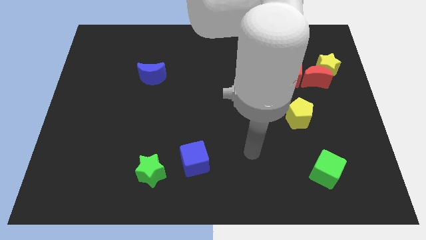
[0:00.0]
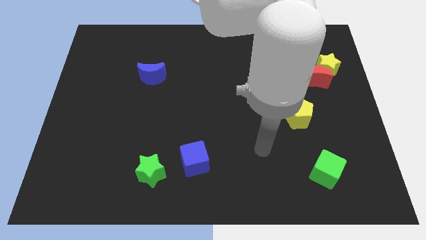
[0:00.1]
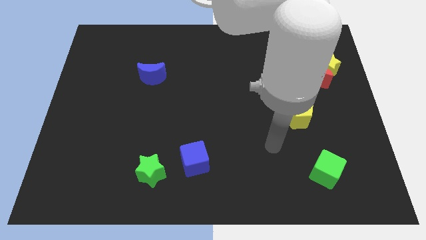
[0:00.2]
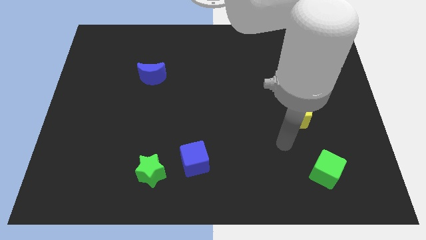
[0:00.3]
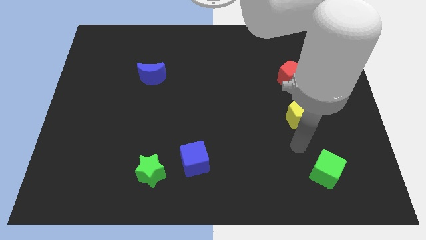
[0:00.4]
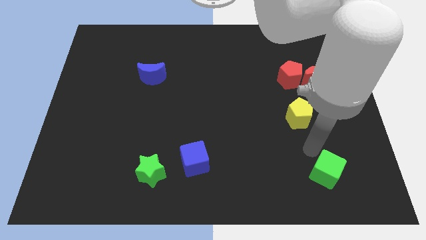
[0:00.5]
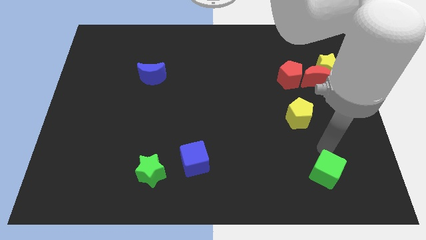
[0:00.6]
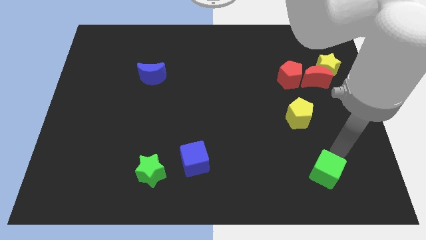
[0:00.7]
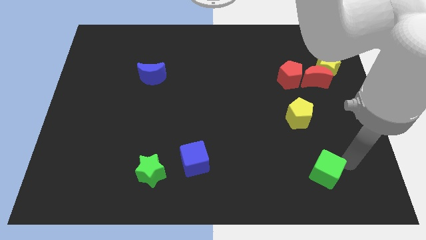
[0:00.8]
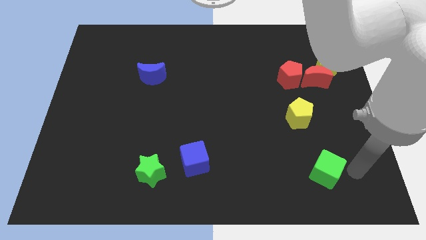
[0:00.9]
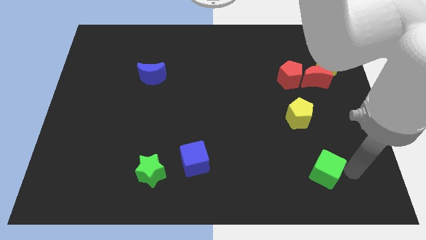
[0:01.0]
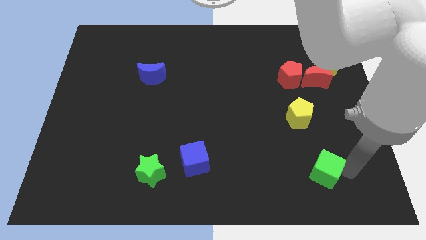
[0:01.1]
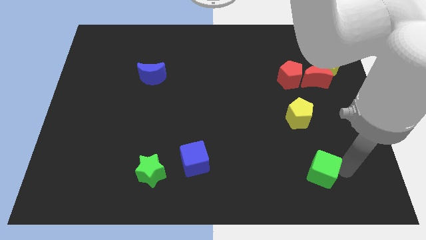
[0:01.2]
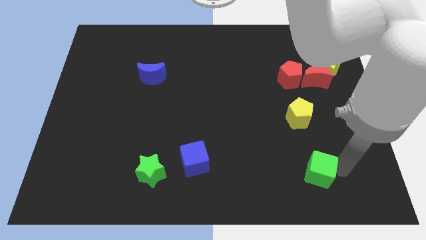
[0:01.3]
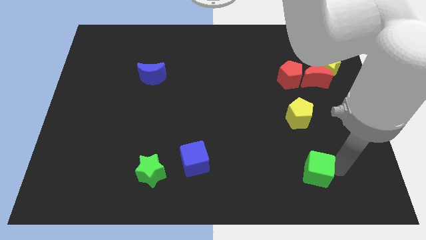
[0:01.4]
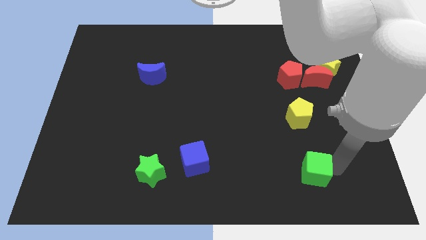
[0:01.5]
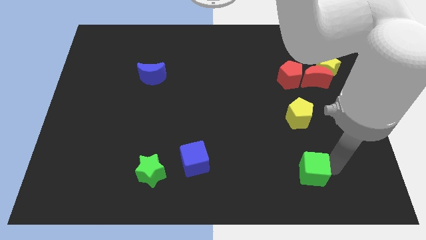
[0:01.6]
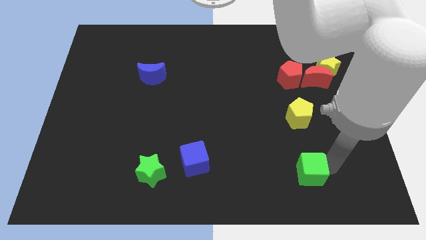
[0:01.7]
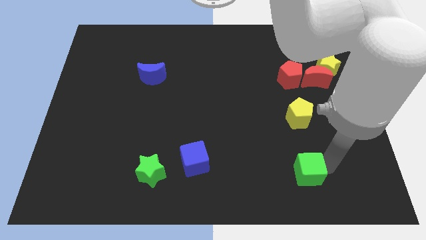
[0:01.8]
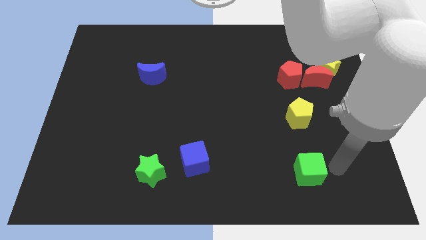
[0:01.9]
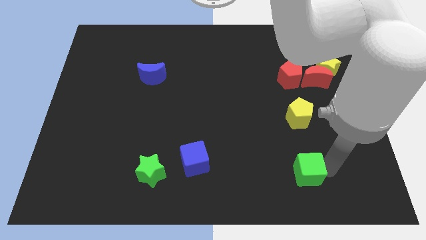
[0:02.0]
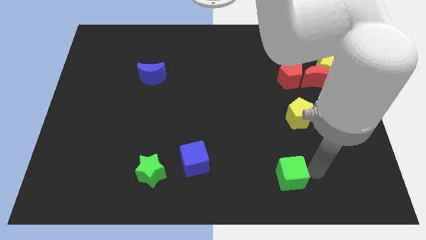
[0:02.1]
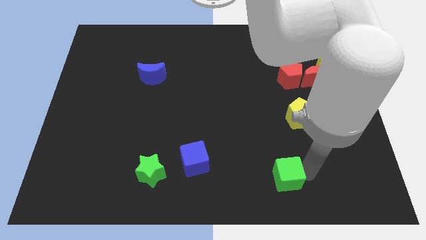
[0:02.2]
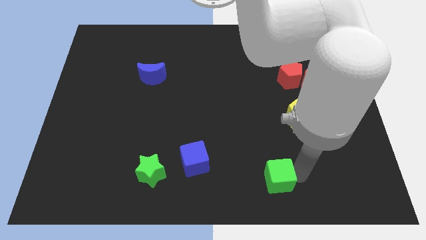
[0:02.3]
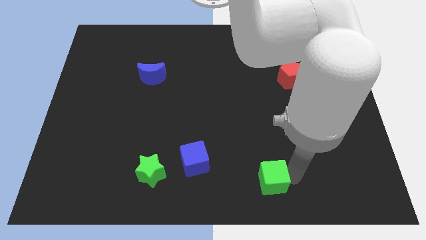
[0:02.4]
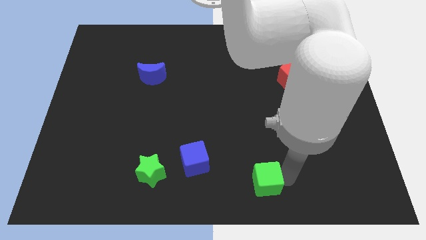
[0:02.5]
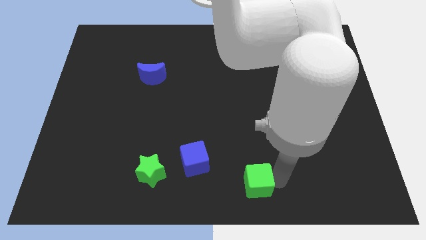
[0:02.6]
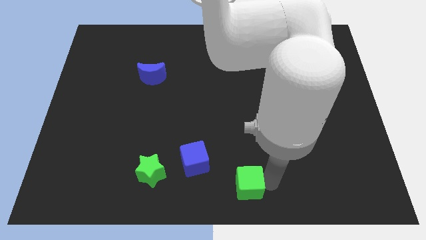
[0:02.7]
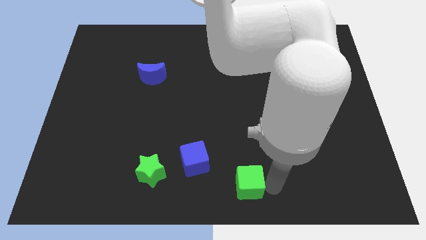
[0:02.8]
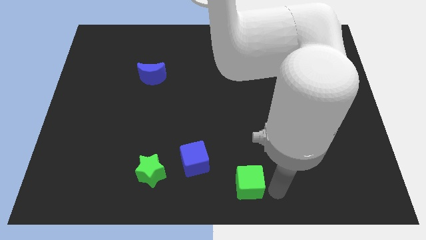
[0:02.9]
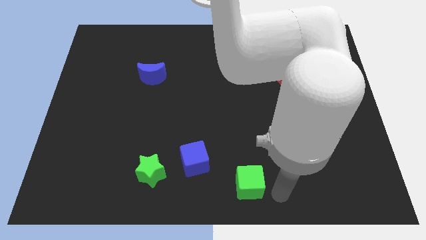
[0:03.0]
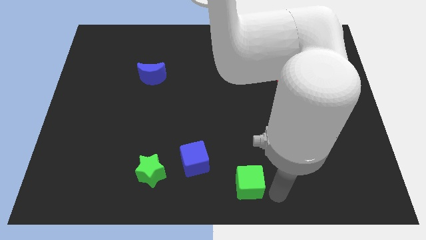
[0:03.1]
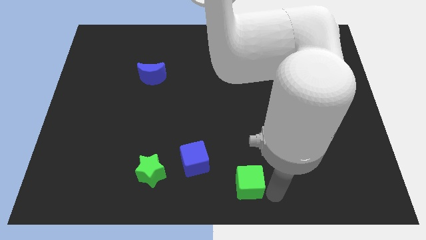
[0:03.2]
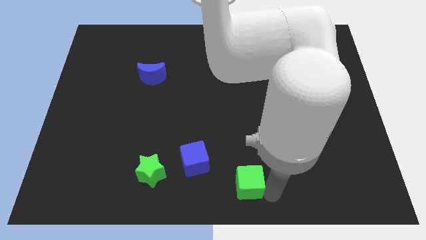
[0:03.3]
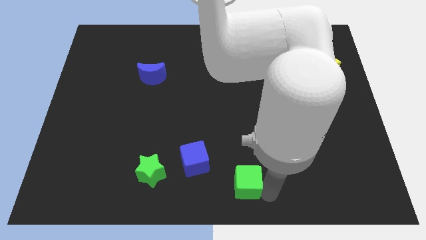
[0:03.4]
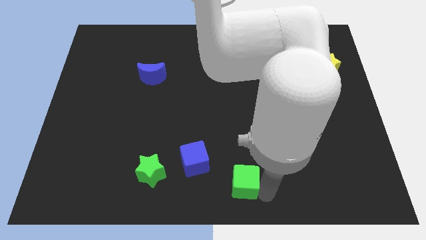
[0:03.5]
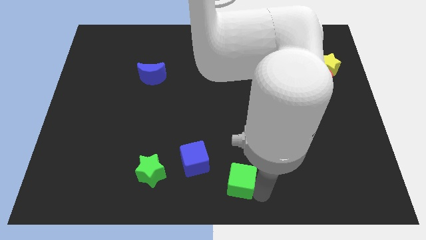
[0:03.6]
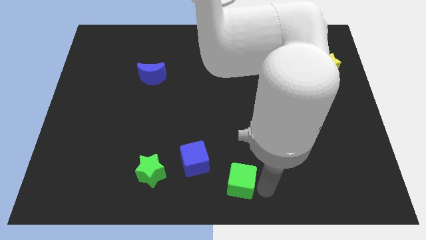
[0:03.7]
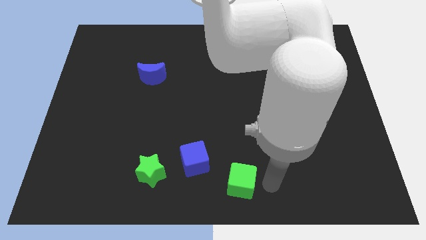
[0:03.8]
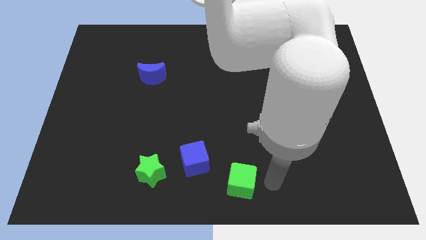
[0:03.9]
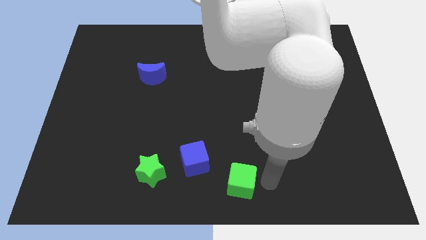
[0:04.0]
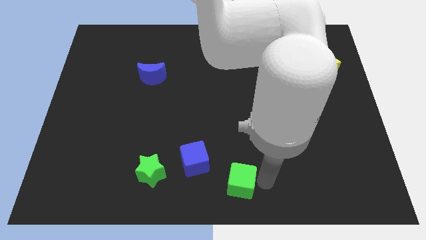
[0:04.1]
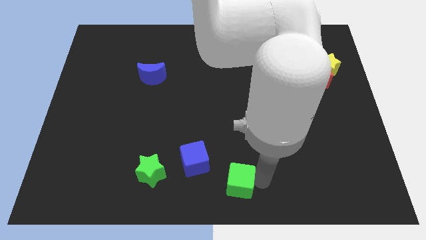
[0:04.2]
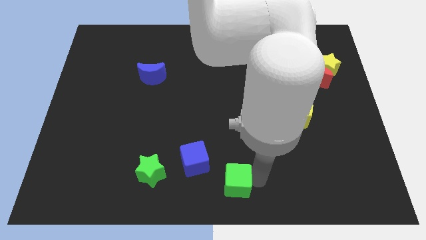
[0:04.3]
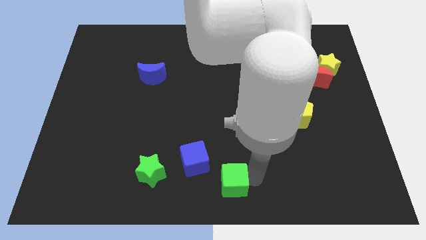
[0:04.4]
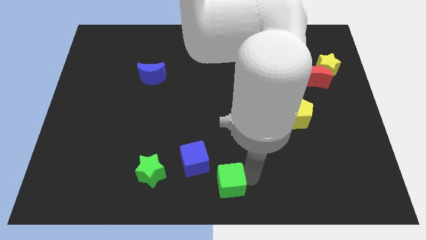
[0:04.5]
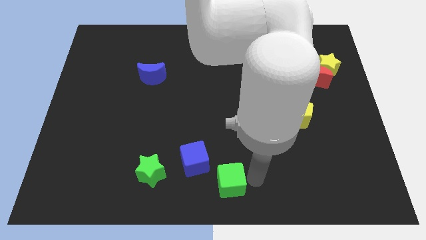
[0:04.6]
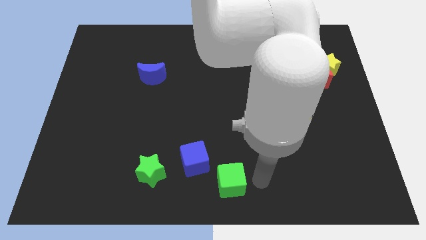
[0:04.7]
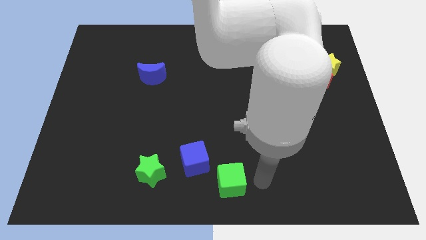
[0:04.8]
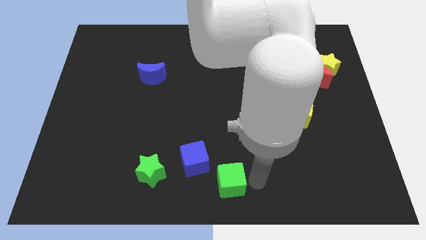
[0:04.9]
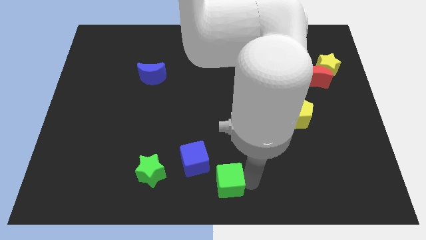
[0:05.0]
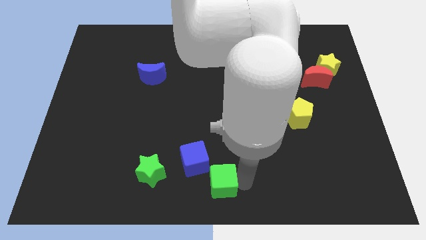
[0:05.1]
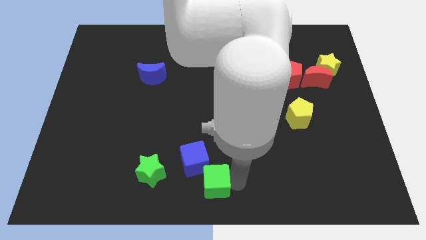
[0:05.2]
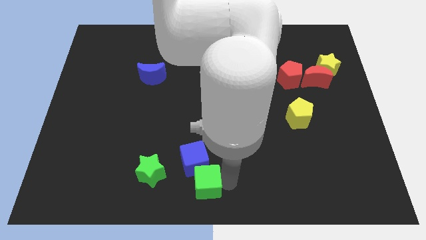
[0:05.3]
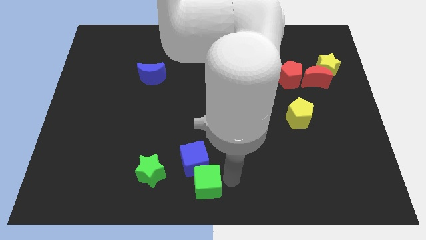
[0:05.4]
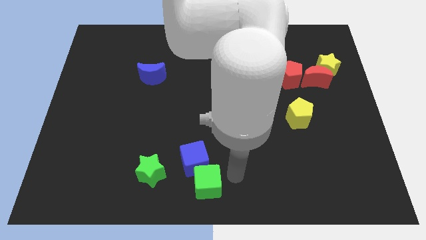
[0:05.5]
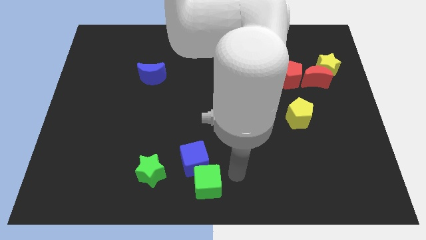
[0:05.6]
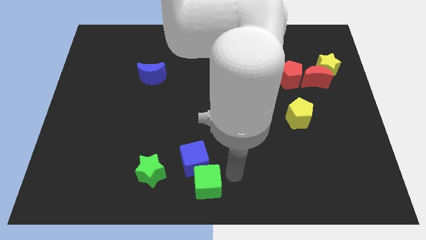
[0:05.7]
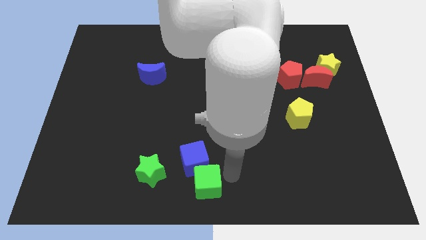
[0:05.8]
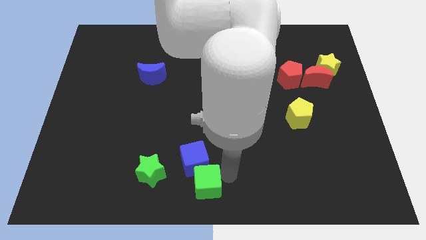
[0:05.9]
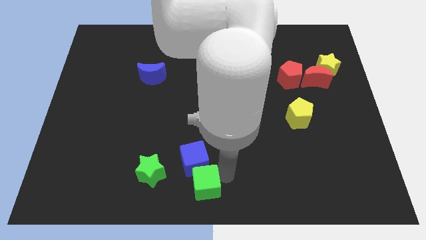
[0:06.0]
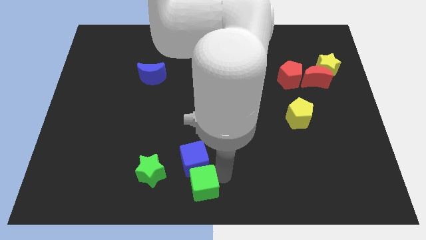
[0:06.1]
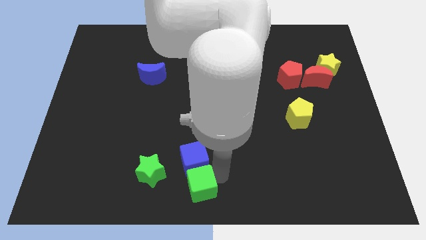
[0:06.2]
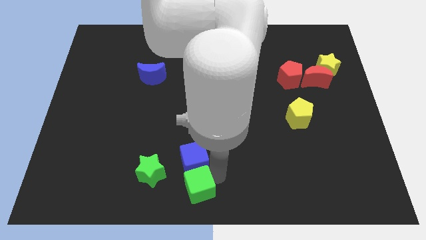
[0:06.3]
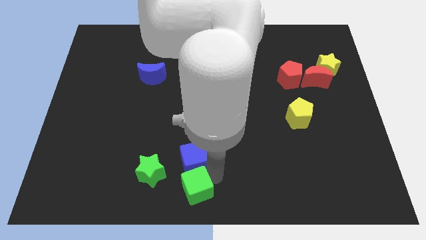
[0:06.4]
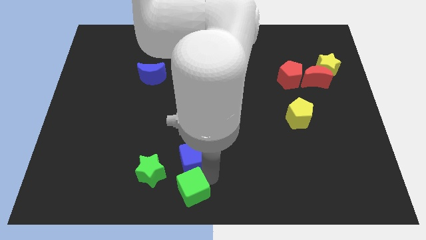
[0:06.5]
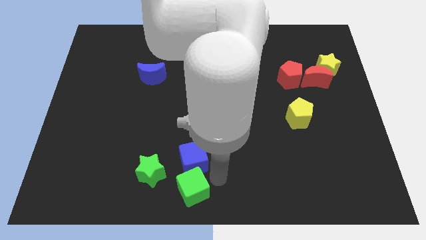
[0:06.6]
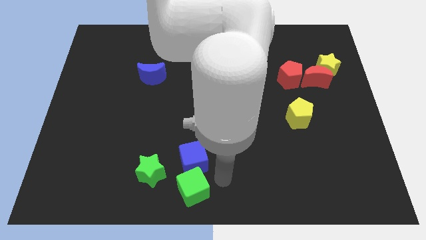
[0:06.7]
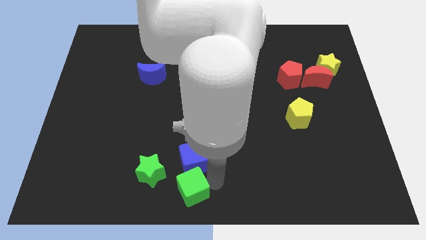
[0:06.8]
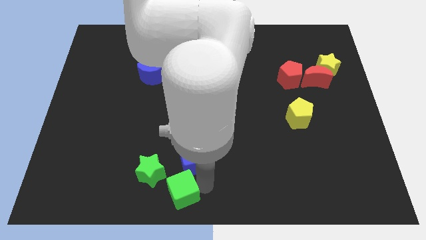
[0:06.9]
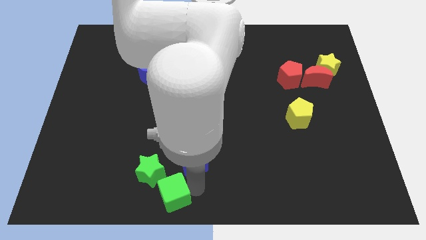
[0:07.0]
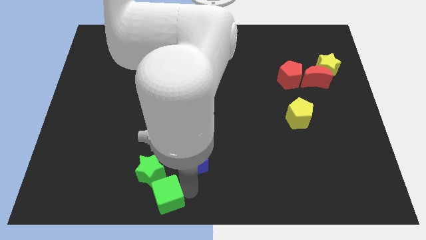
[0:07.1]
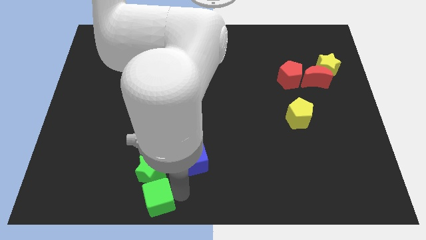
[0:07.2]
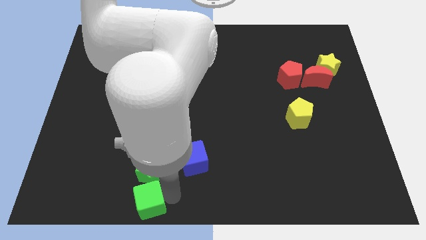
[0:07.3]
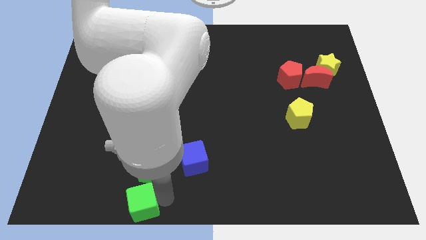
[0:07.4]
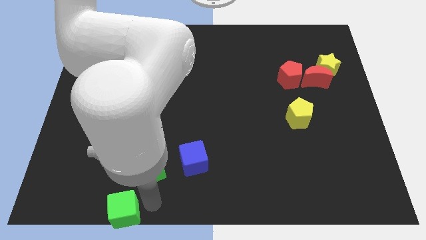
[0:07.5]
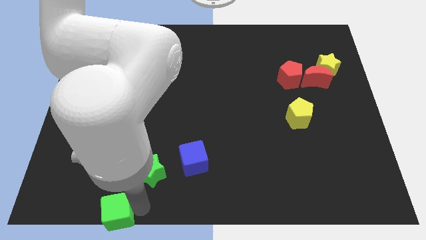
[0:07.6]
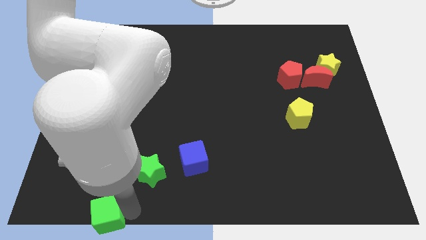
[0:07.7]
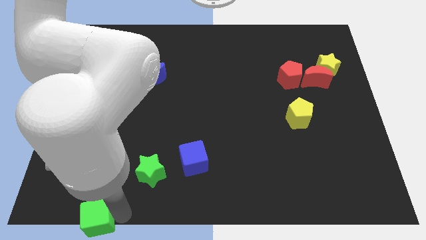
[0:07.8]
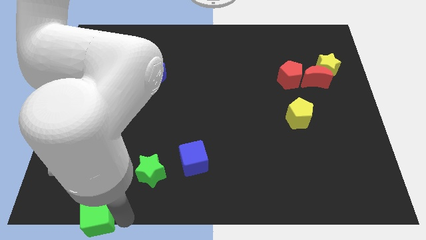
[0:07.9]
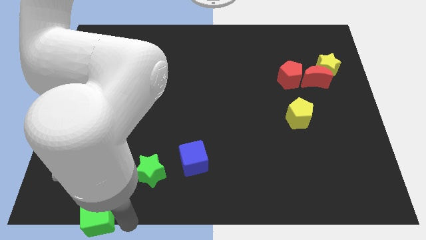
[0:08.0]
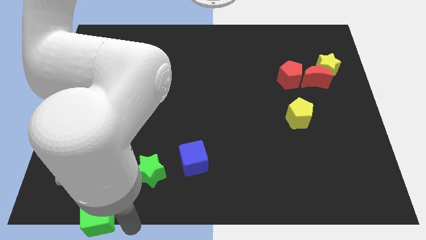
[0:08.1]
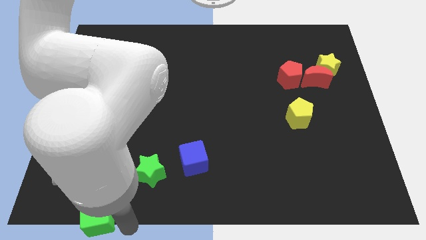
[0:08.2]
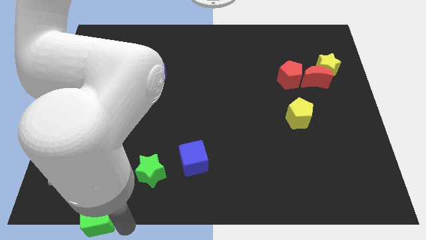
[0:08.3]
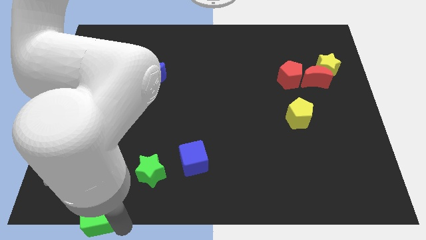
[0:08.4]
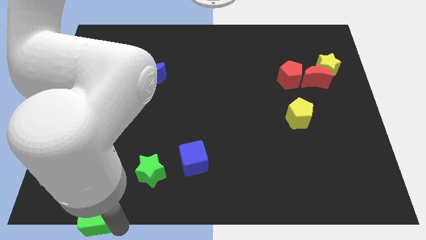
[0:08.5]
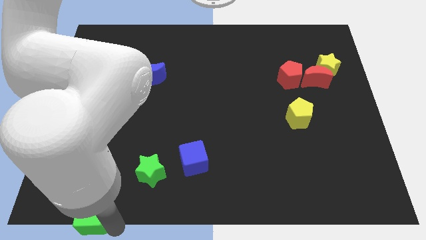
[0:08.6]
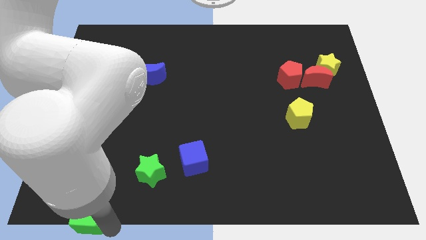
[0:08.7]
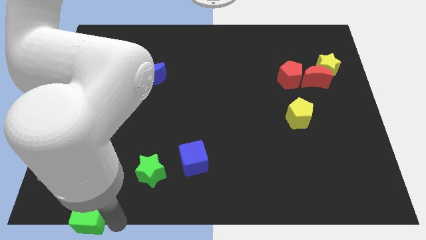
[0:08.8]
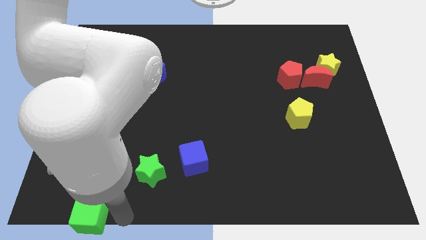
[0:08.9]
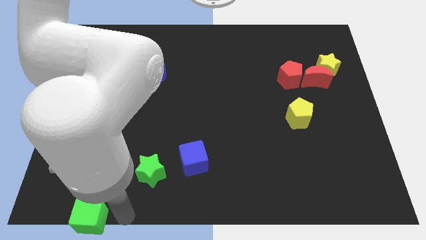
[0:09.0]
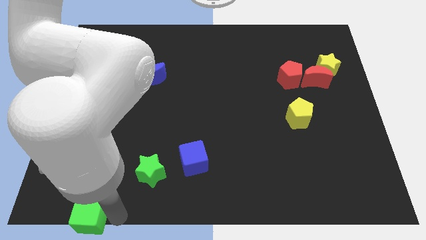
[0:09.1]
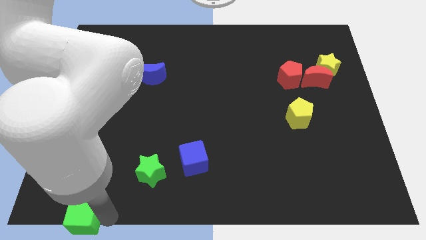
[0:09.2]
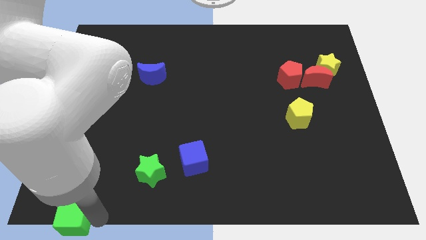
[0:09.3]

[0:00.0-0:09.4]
slide the green cube to the bottom left corner
